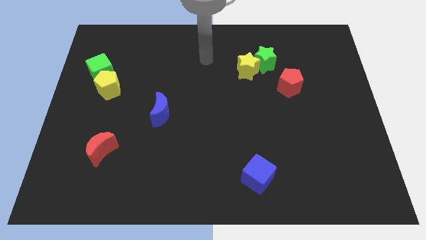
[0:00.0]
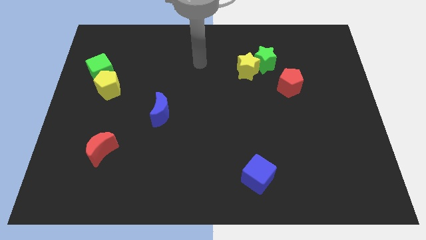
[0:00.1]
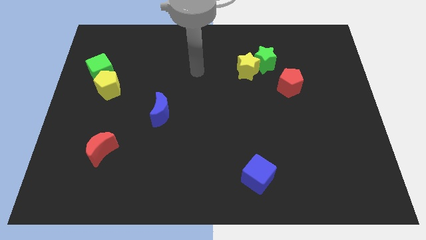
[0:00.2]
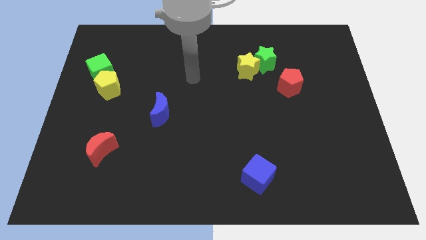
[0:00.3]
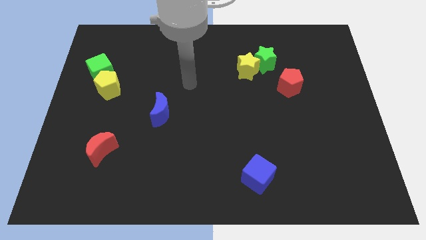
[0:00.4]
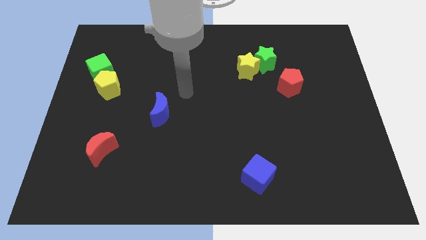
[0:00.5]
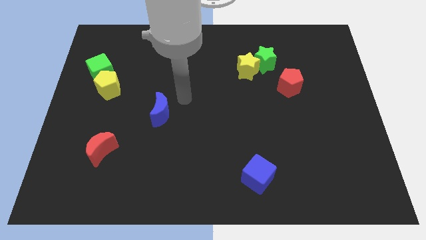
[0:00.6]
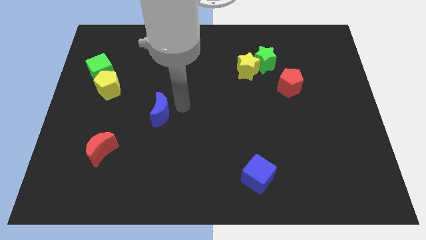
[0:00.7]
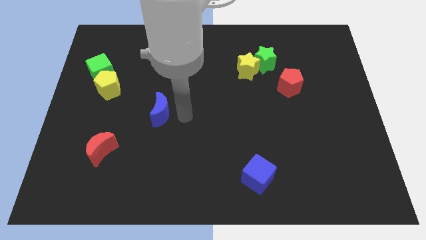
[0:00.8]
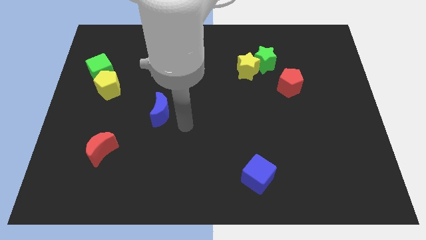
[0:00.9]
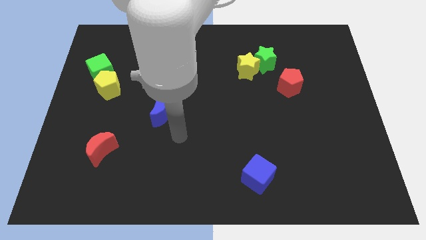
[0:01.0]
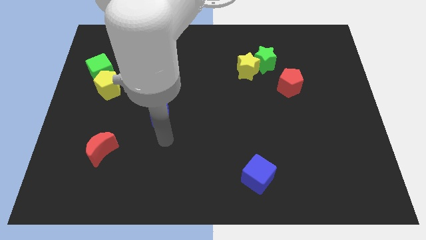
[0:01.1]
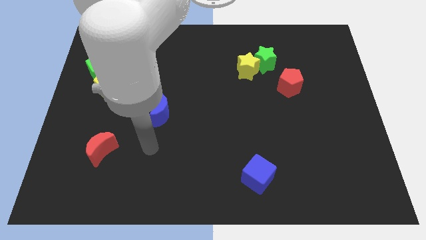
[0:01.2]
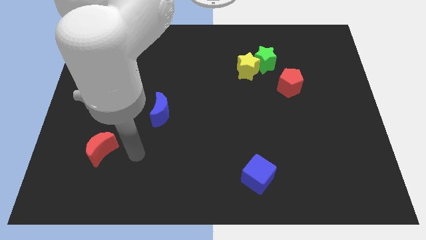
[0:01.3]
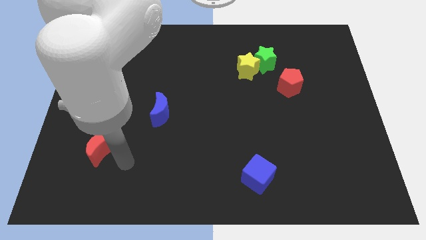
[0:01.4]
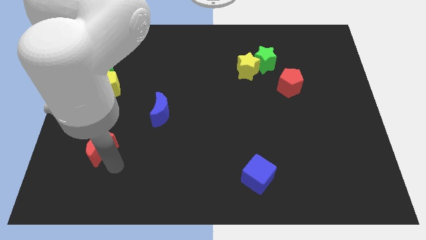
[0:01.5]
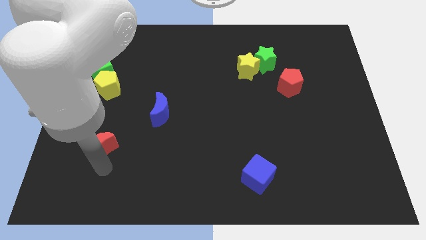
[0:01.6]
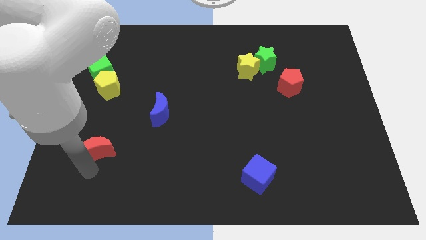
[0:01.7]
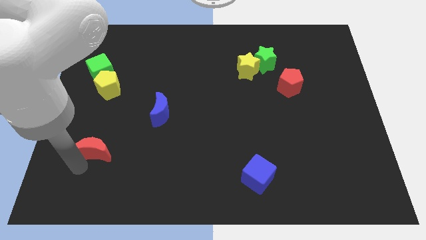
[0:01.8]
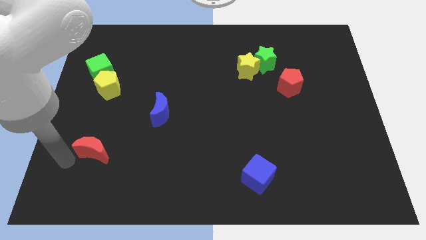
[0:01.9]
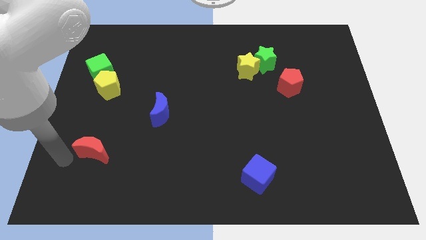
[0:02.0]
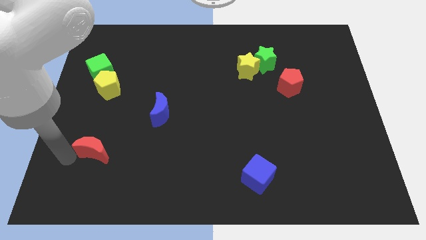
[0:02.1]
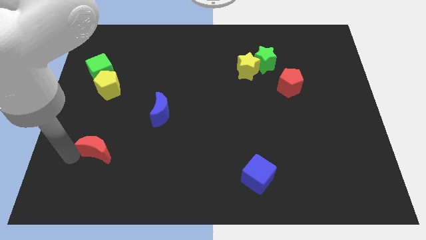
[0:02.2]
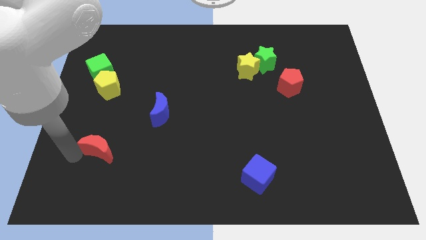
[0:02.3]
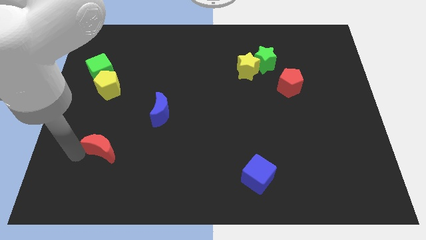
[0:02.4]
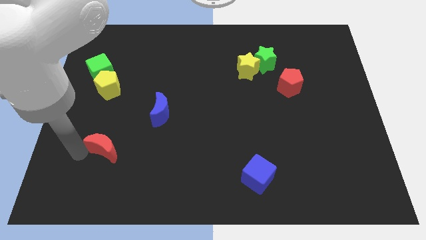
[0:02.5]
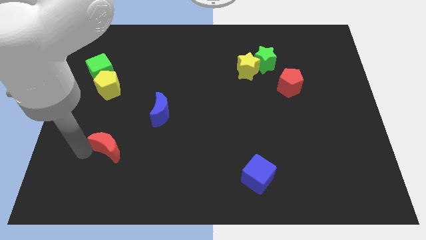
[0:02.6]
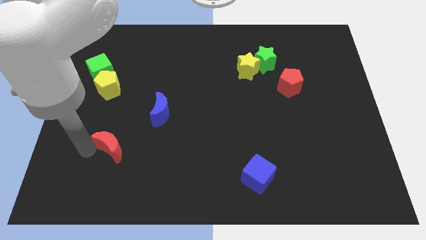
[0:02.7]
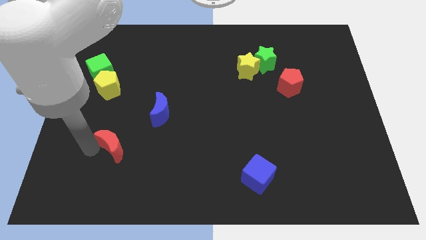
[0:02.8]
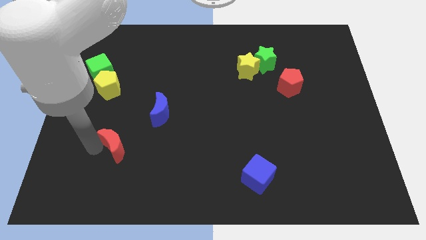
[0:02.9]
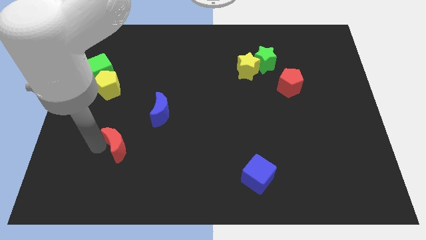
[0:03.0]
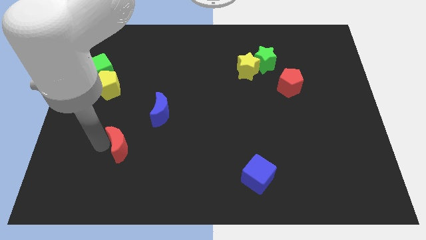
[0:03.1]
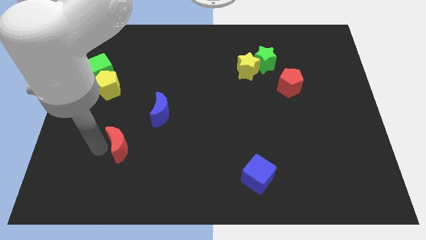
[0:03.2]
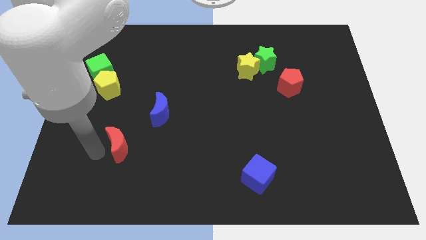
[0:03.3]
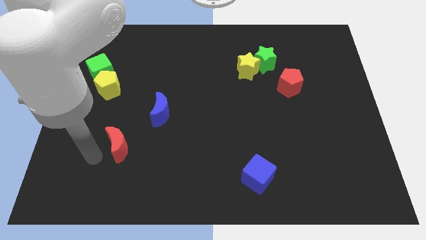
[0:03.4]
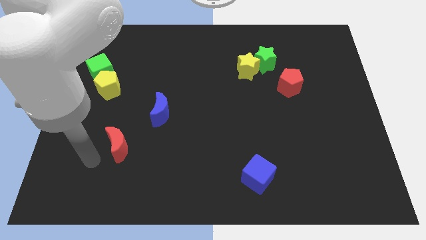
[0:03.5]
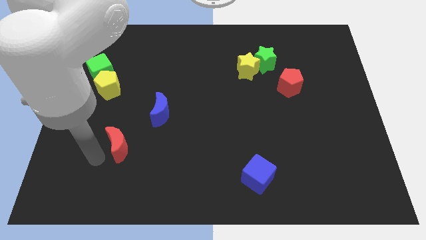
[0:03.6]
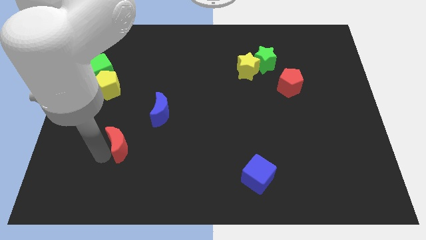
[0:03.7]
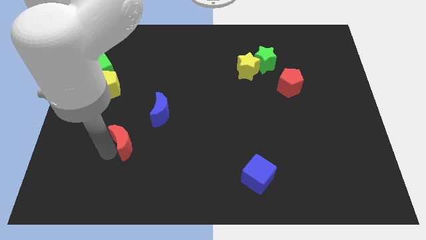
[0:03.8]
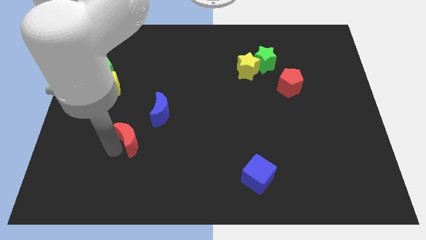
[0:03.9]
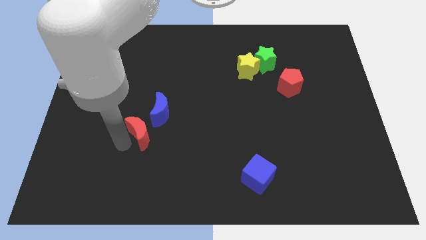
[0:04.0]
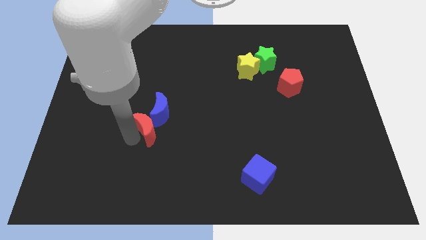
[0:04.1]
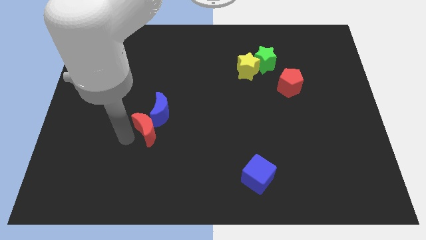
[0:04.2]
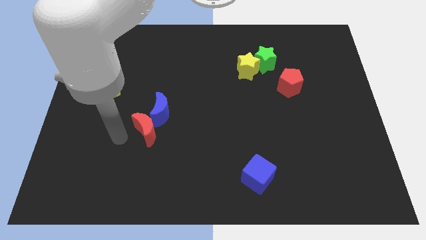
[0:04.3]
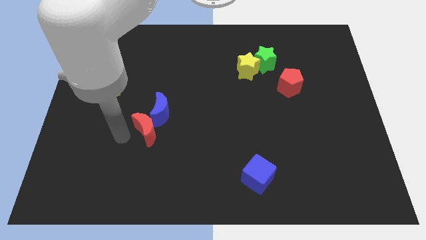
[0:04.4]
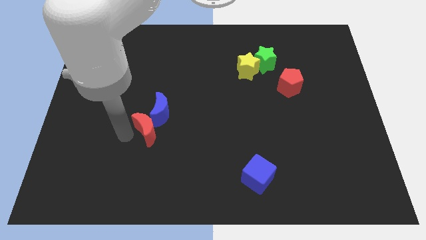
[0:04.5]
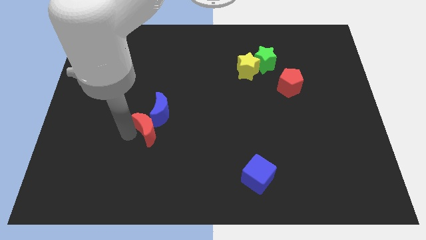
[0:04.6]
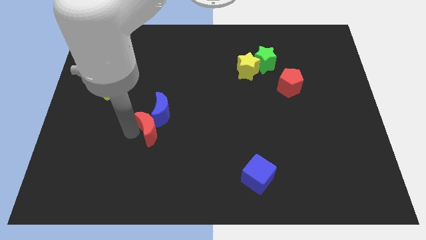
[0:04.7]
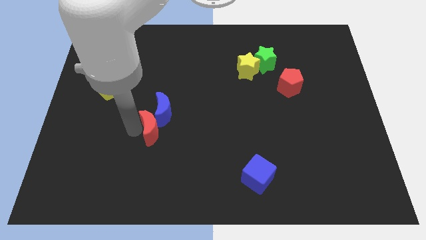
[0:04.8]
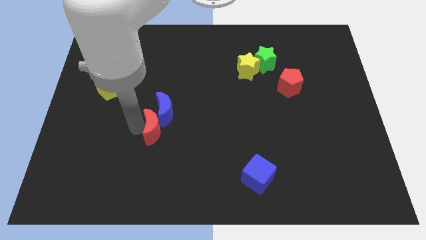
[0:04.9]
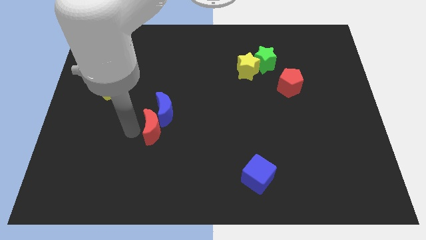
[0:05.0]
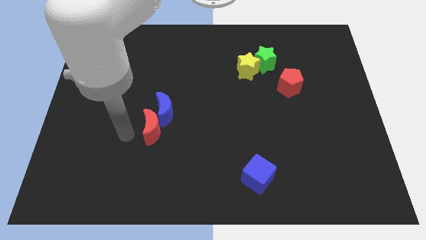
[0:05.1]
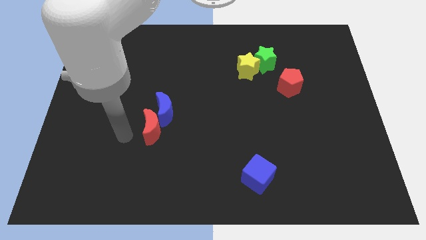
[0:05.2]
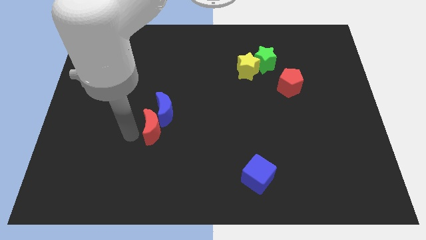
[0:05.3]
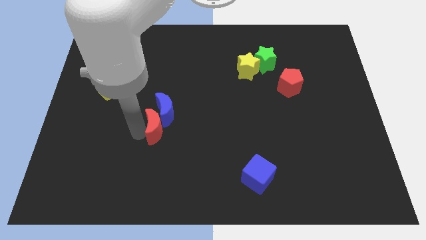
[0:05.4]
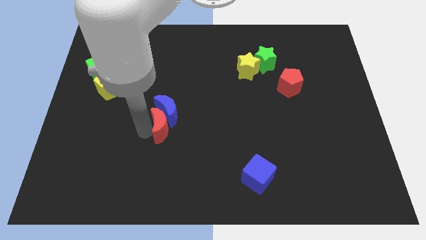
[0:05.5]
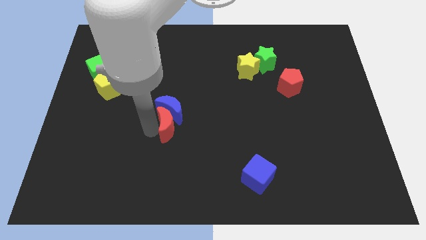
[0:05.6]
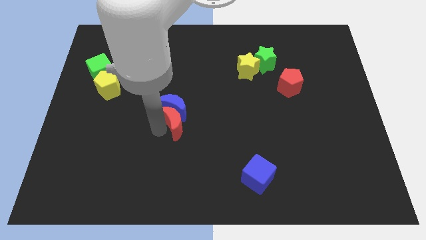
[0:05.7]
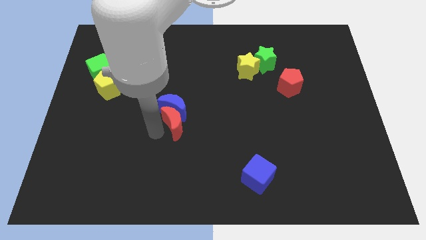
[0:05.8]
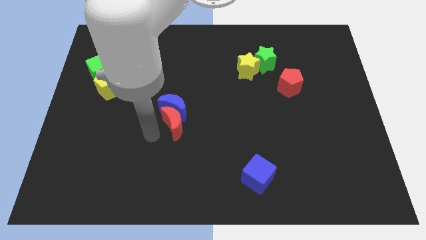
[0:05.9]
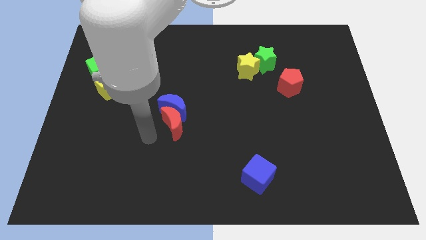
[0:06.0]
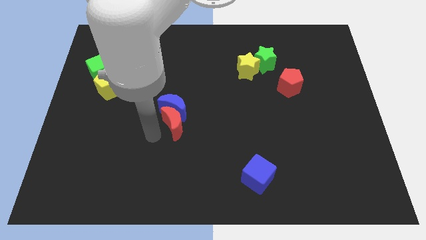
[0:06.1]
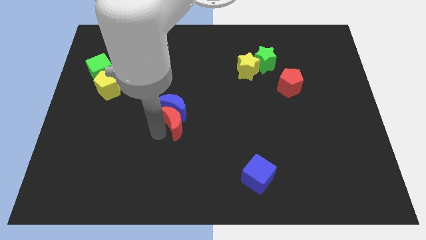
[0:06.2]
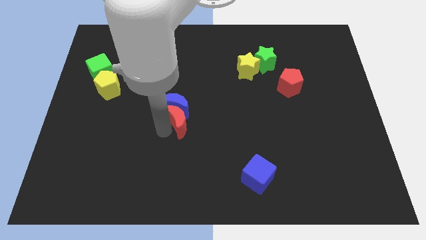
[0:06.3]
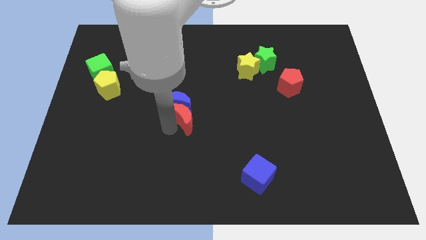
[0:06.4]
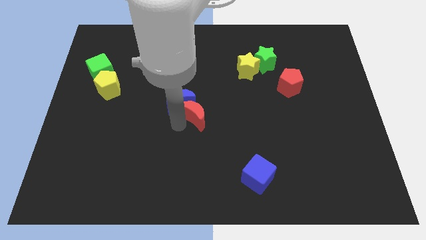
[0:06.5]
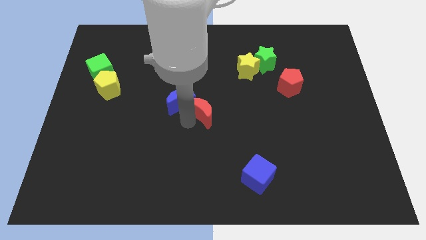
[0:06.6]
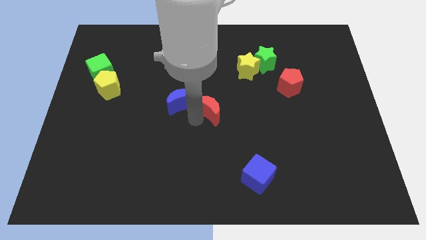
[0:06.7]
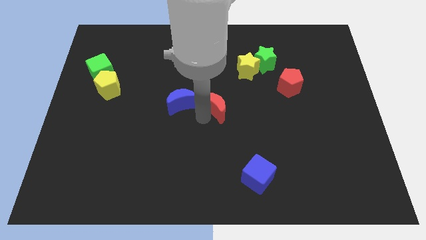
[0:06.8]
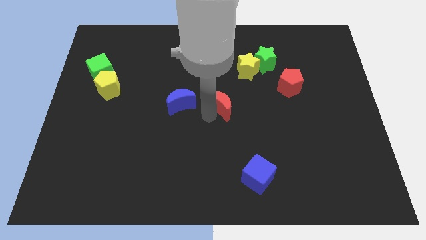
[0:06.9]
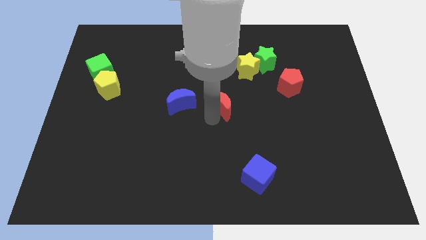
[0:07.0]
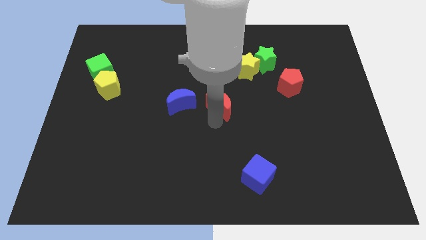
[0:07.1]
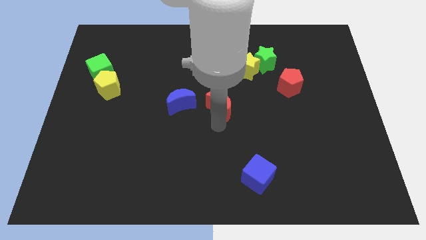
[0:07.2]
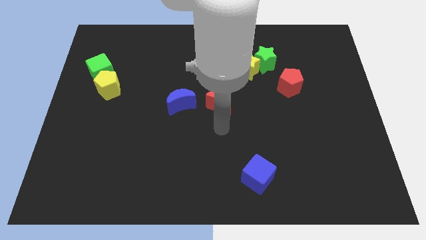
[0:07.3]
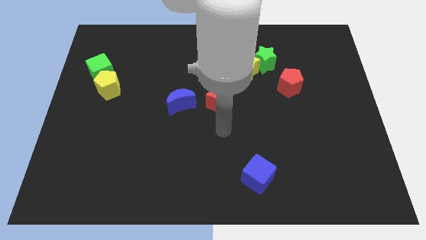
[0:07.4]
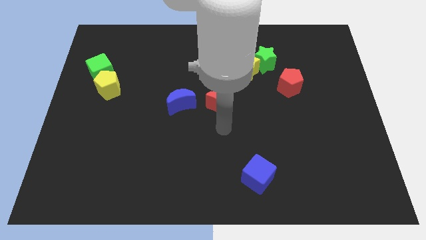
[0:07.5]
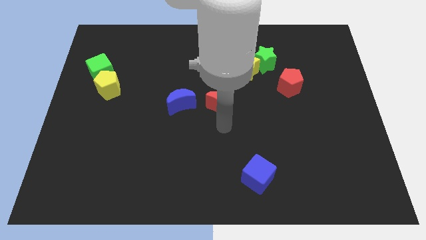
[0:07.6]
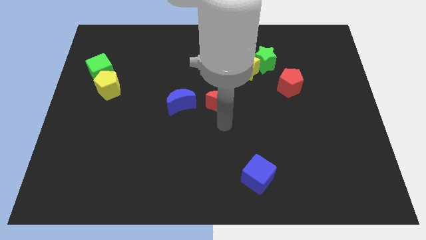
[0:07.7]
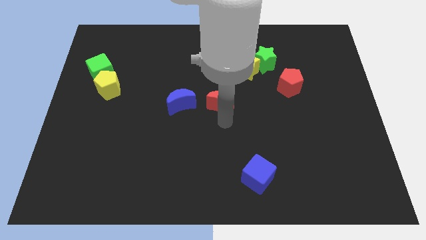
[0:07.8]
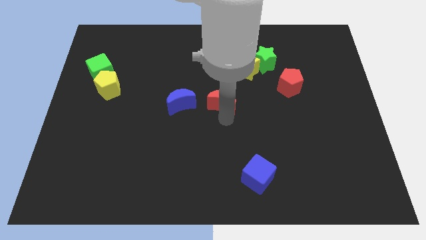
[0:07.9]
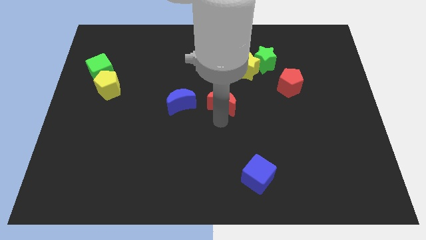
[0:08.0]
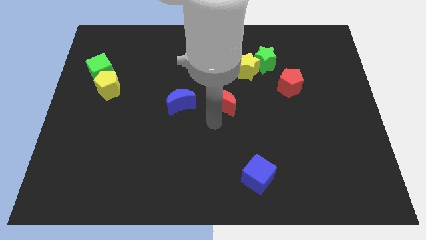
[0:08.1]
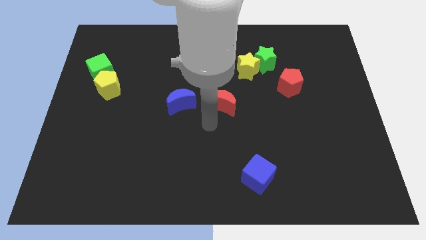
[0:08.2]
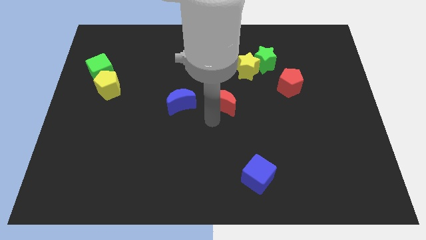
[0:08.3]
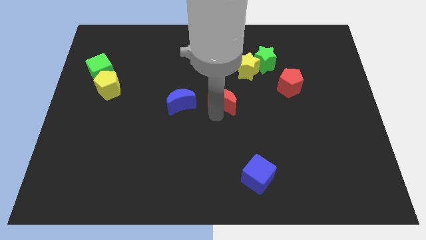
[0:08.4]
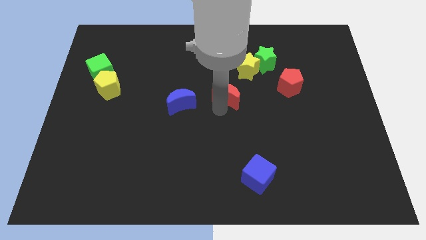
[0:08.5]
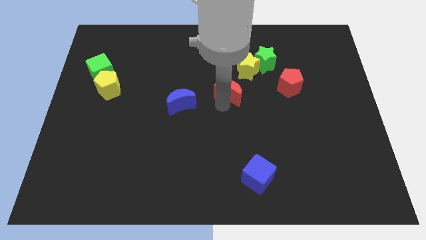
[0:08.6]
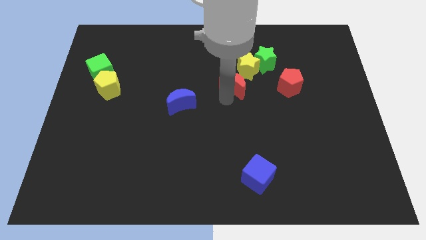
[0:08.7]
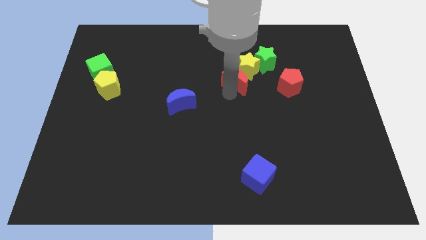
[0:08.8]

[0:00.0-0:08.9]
put the red moon towards the yellow star
